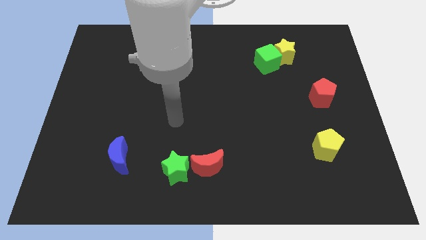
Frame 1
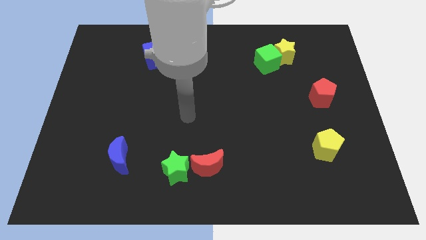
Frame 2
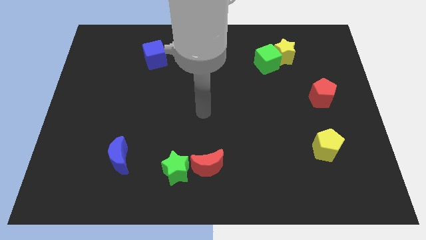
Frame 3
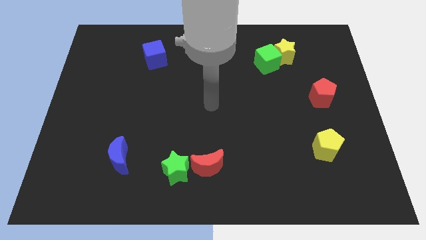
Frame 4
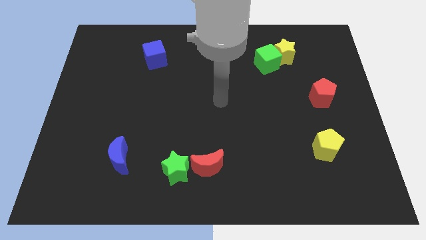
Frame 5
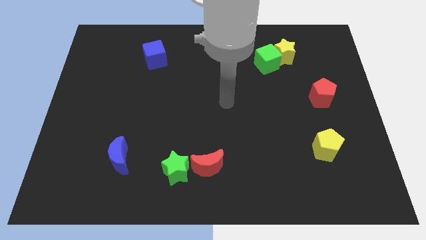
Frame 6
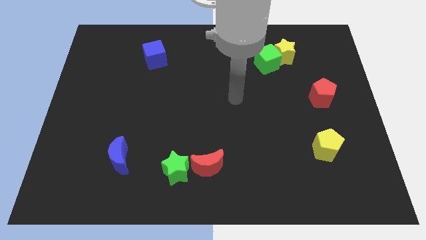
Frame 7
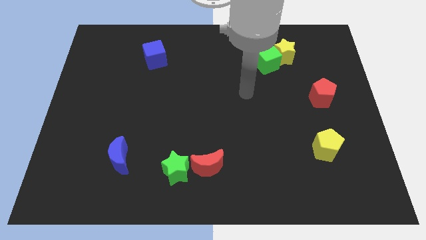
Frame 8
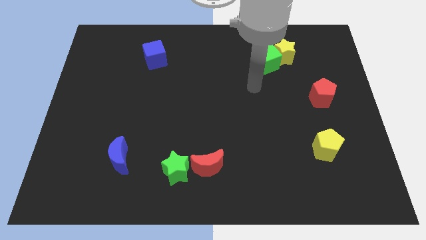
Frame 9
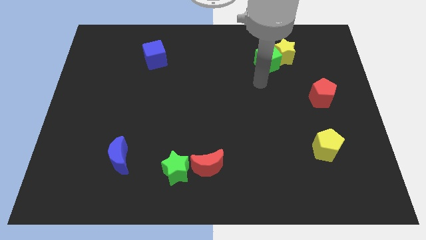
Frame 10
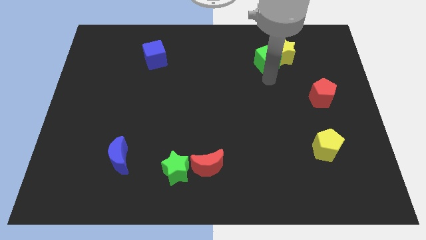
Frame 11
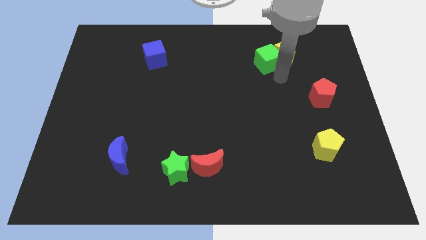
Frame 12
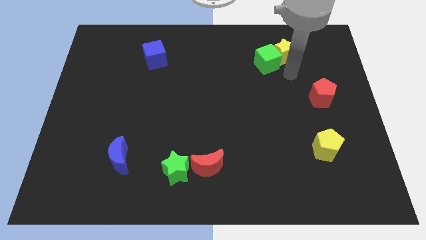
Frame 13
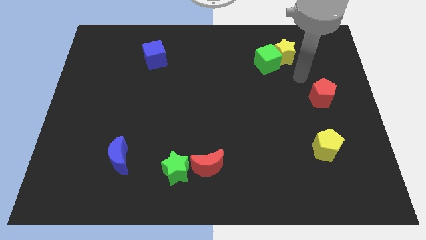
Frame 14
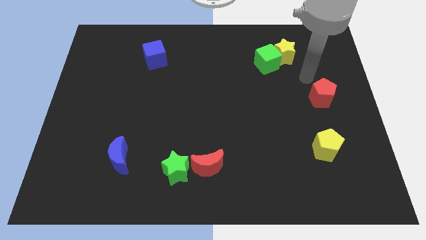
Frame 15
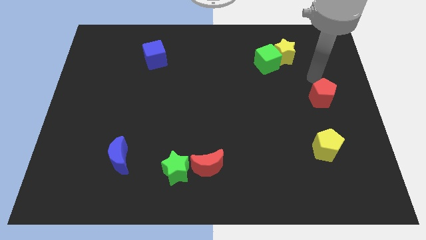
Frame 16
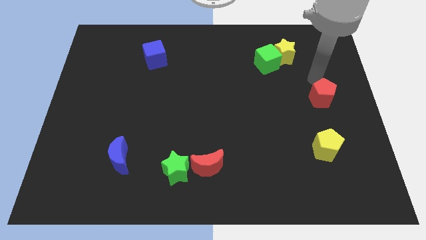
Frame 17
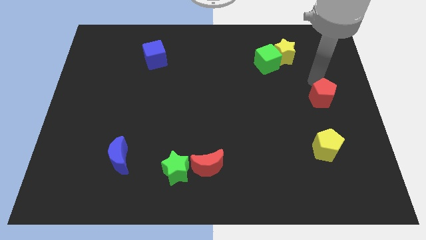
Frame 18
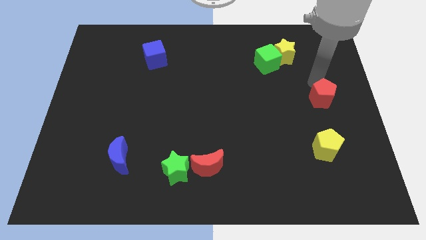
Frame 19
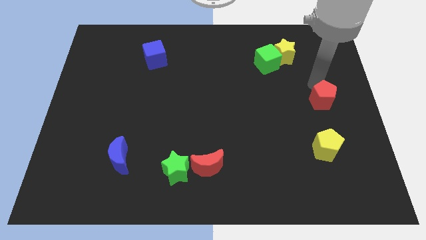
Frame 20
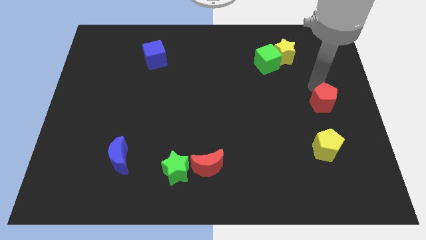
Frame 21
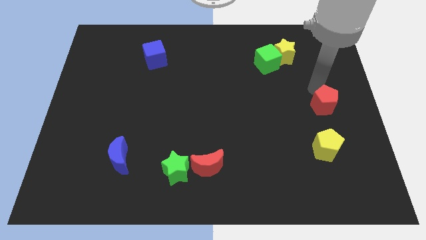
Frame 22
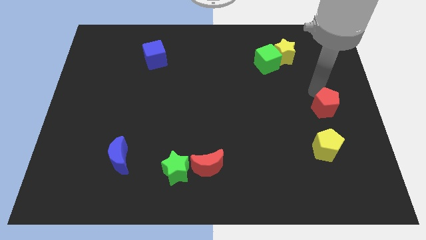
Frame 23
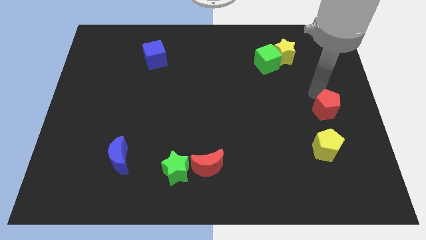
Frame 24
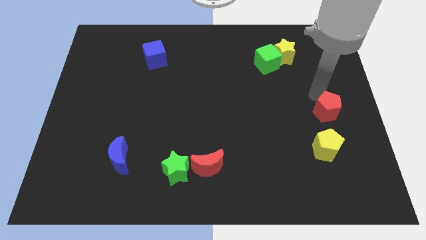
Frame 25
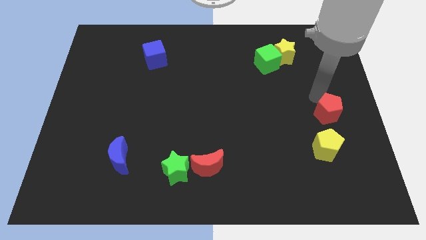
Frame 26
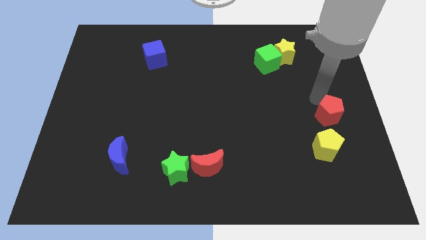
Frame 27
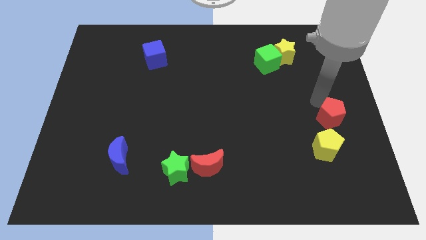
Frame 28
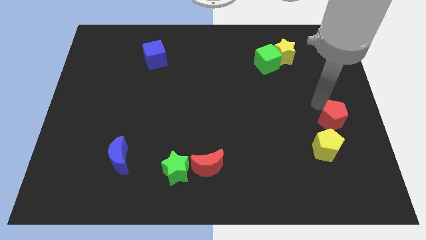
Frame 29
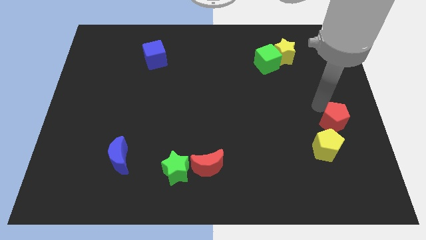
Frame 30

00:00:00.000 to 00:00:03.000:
slide the red pentagon downwards slightly

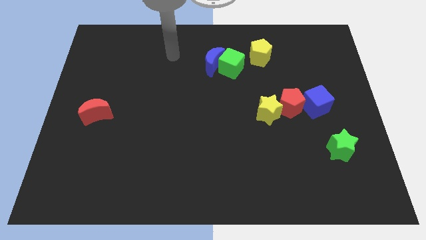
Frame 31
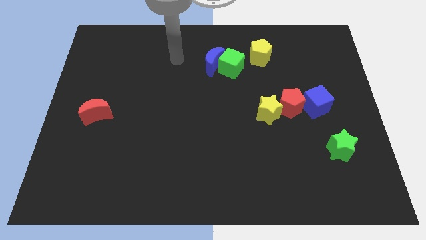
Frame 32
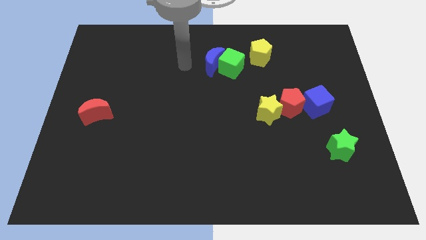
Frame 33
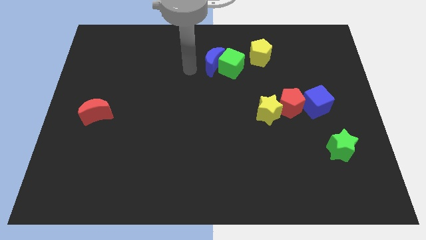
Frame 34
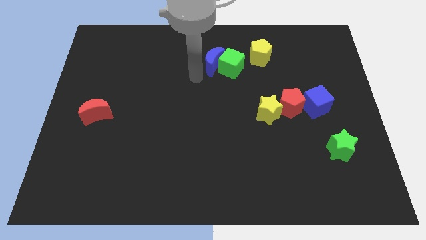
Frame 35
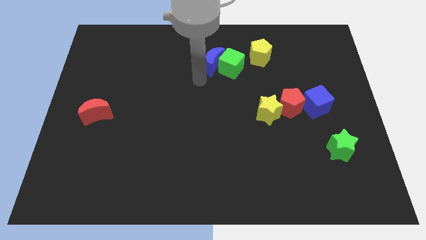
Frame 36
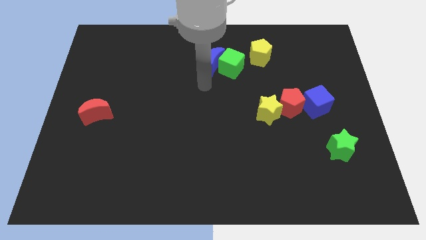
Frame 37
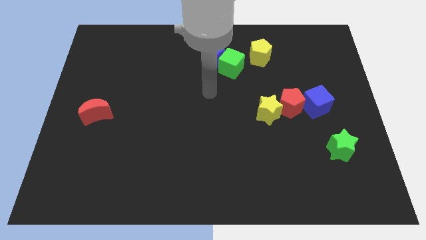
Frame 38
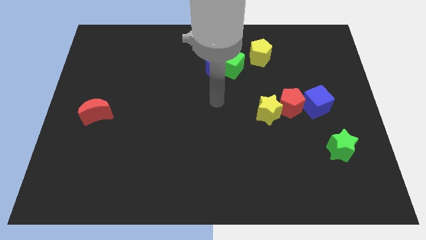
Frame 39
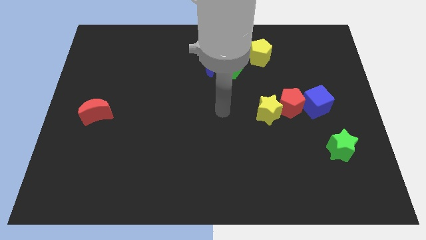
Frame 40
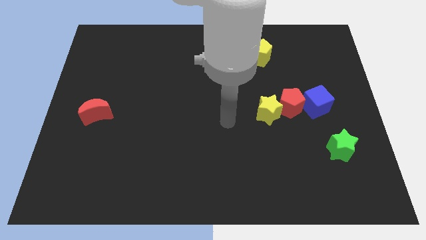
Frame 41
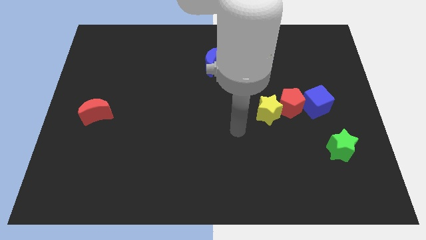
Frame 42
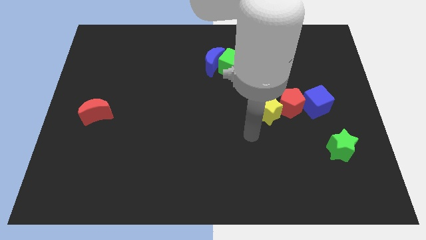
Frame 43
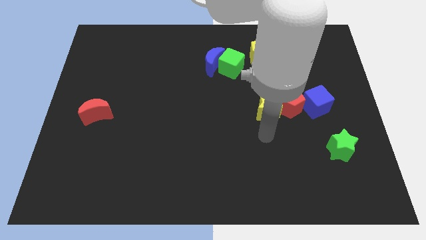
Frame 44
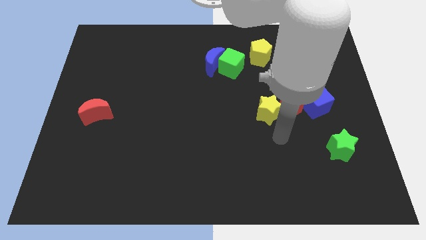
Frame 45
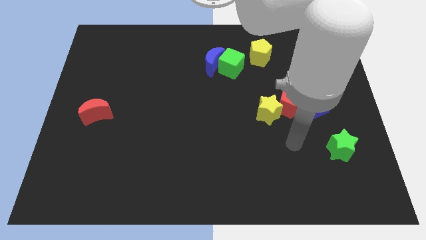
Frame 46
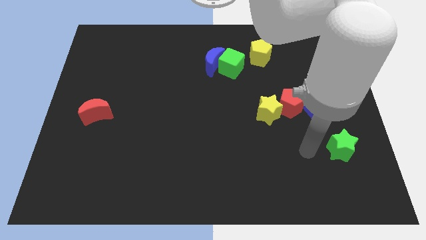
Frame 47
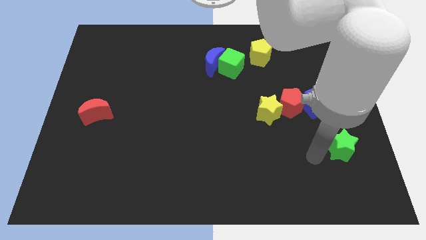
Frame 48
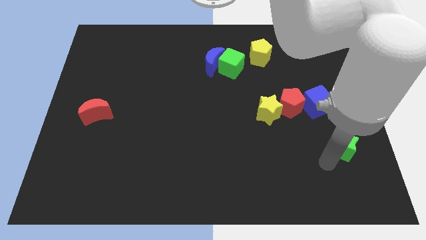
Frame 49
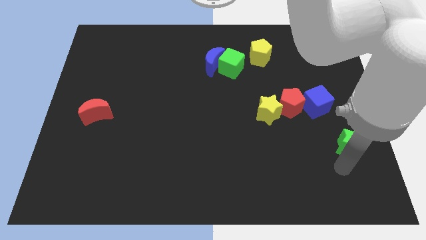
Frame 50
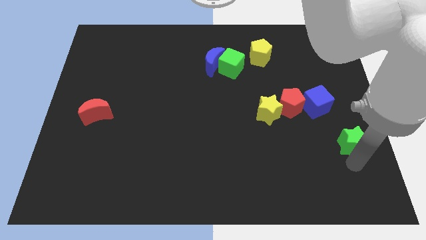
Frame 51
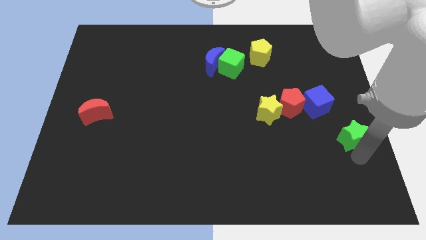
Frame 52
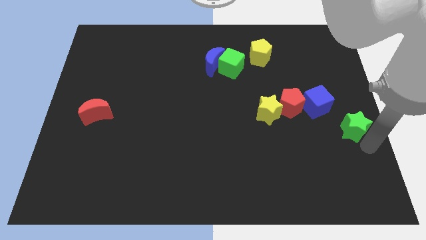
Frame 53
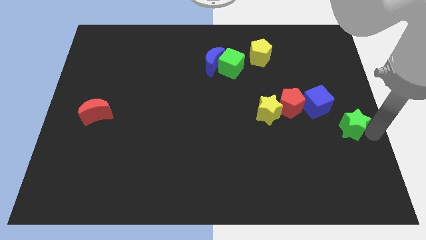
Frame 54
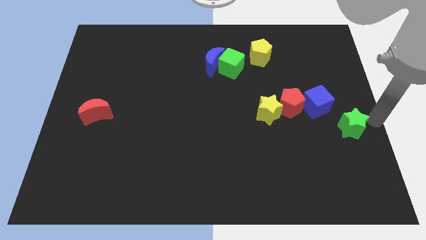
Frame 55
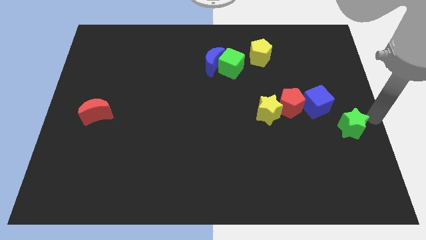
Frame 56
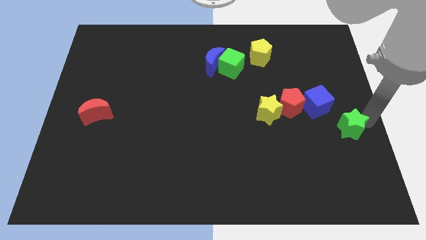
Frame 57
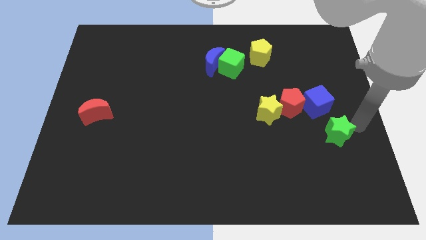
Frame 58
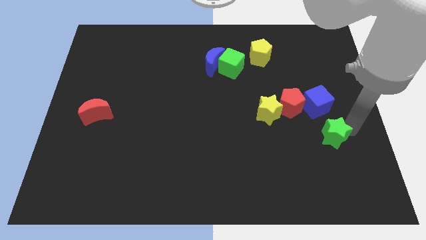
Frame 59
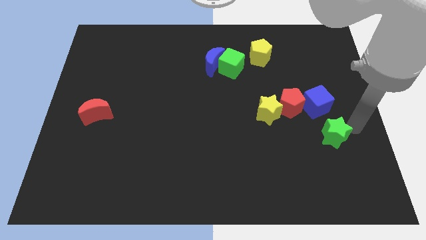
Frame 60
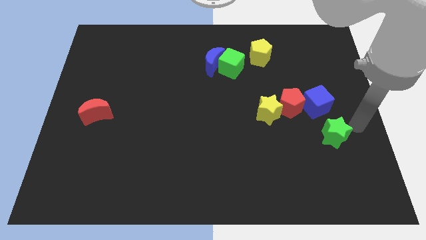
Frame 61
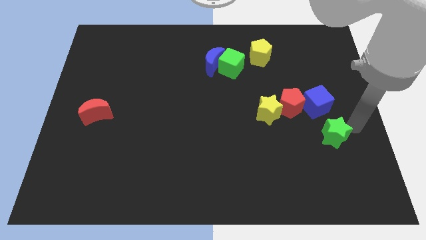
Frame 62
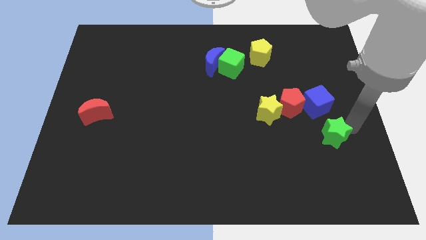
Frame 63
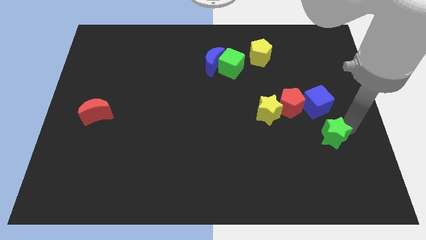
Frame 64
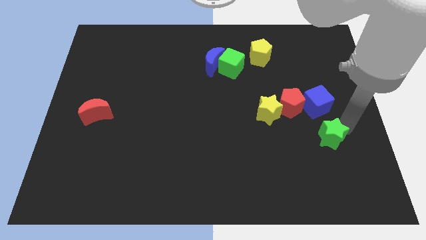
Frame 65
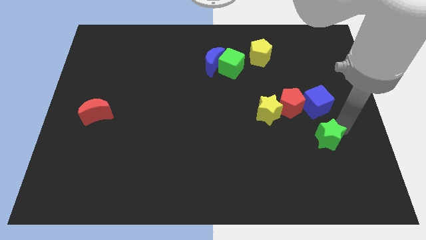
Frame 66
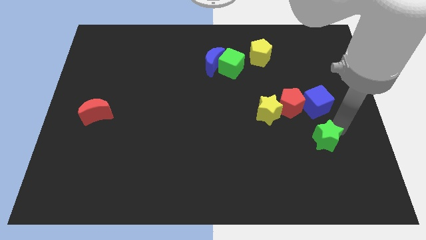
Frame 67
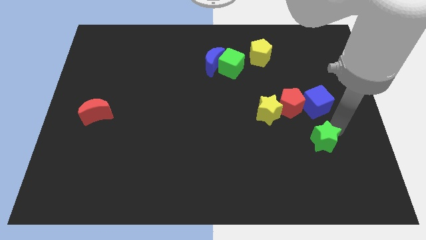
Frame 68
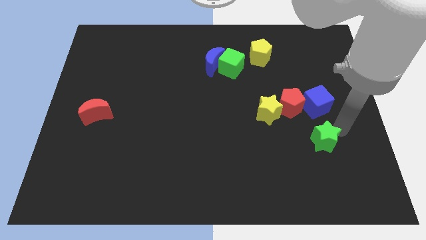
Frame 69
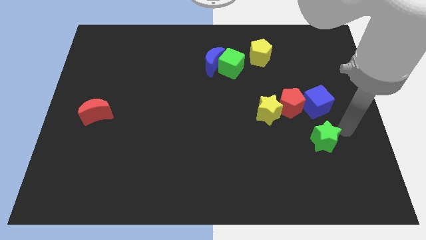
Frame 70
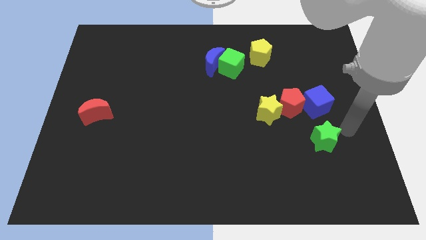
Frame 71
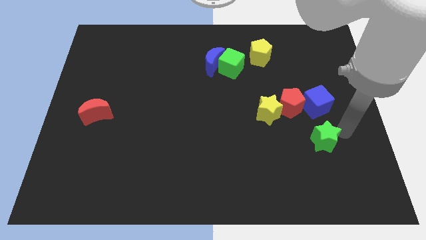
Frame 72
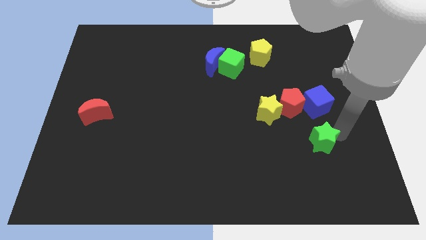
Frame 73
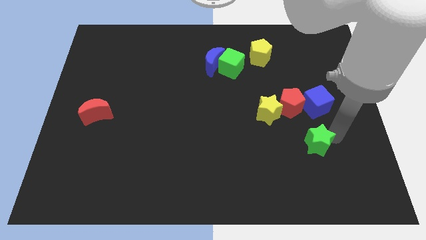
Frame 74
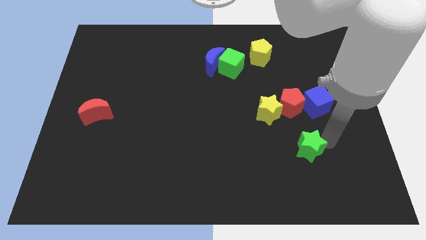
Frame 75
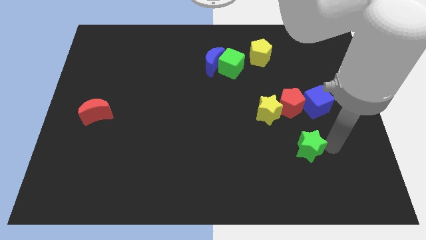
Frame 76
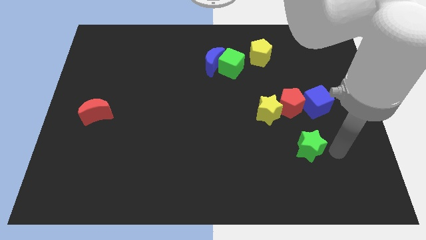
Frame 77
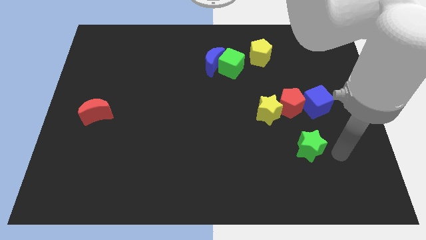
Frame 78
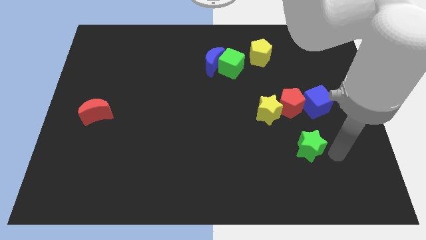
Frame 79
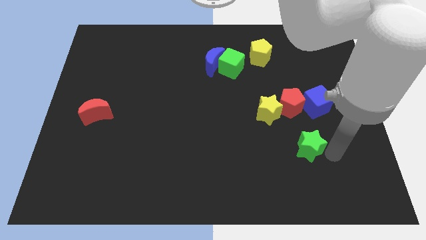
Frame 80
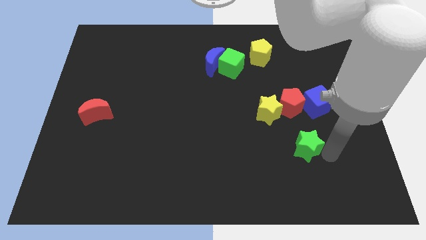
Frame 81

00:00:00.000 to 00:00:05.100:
slightly slide the green star to the left
